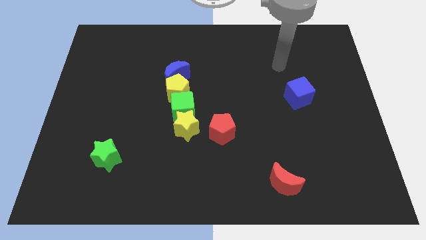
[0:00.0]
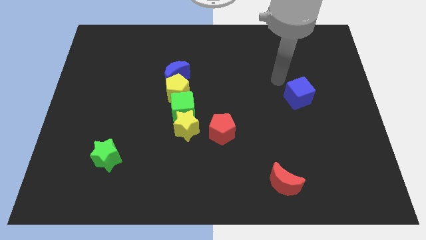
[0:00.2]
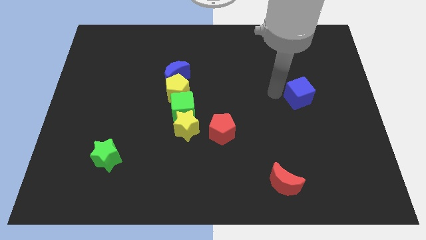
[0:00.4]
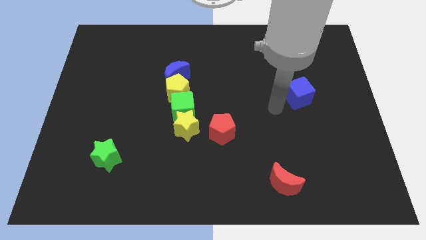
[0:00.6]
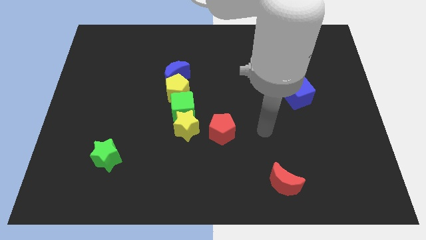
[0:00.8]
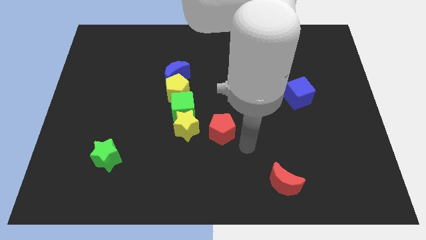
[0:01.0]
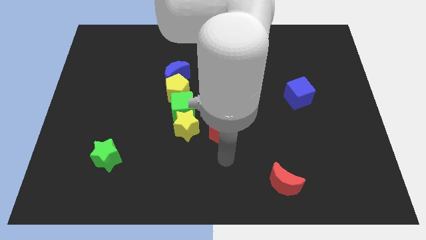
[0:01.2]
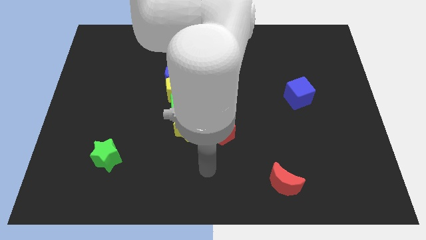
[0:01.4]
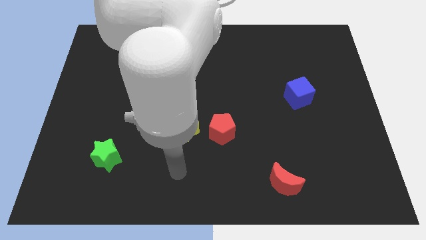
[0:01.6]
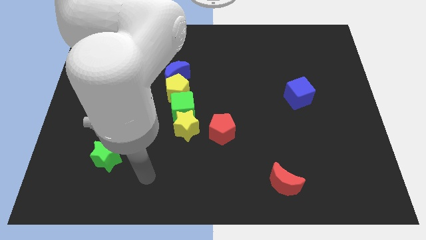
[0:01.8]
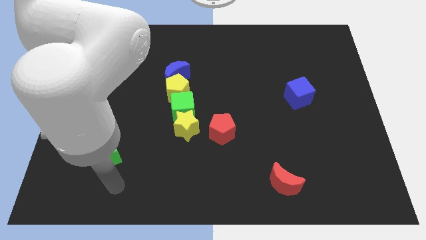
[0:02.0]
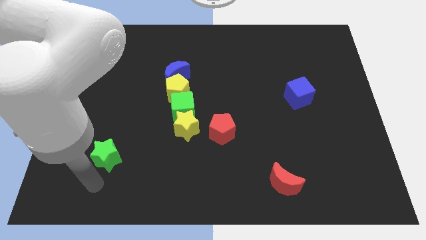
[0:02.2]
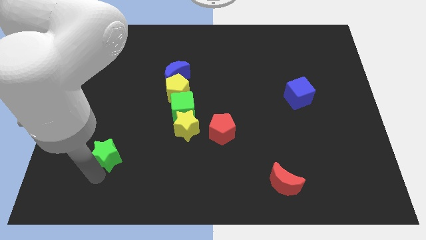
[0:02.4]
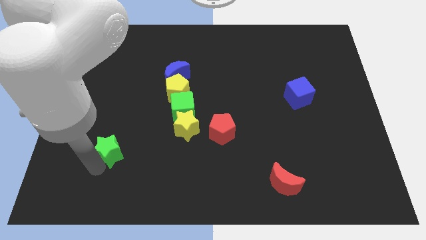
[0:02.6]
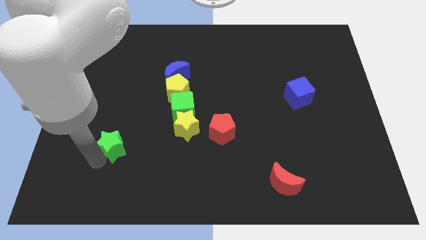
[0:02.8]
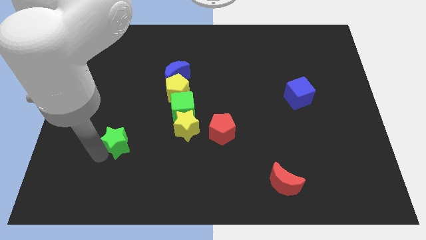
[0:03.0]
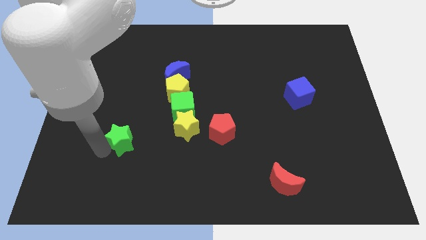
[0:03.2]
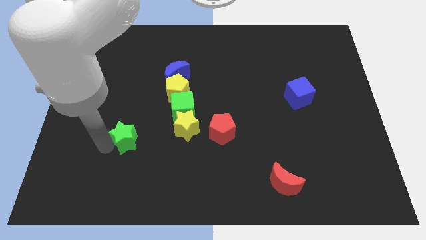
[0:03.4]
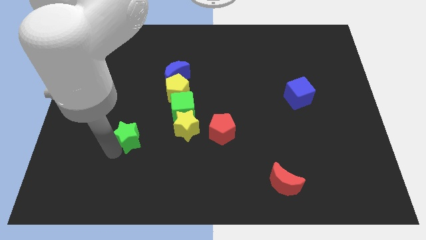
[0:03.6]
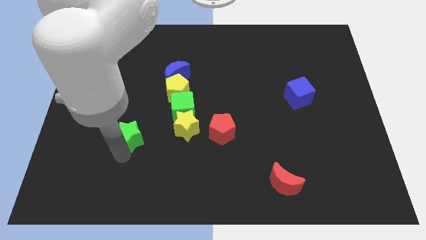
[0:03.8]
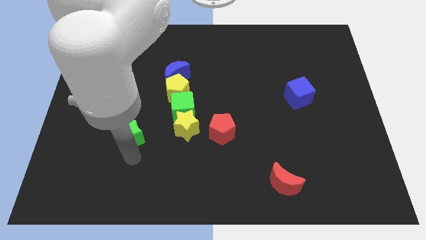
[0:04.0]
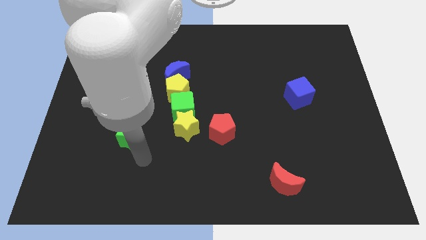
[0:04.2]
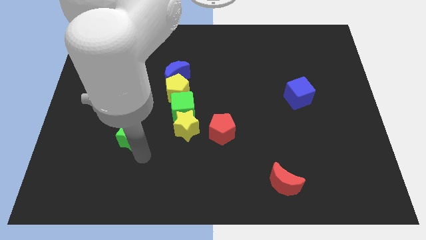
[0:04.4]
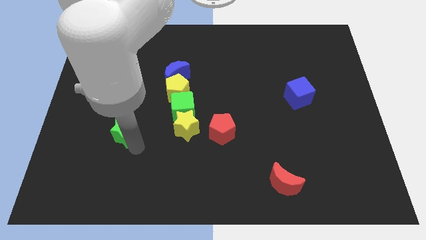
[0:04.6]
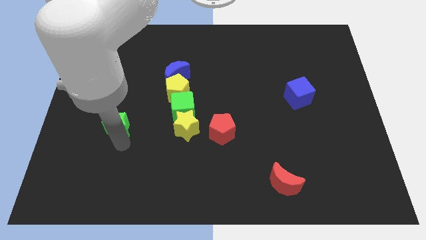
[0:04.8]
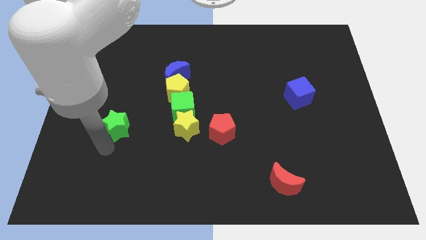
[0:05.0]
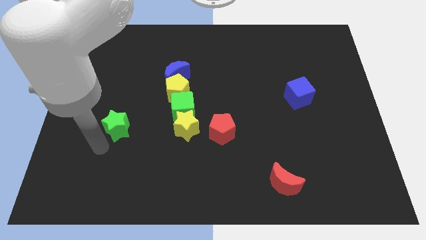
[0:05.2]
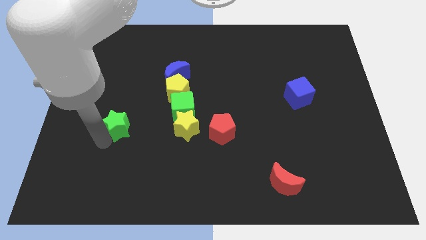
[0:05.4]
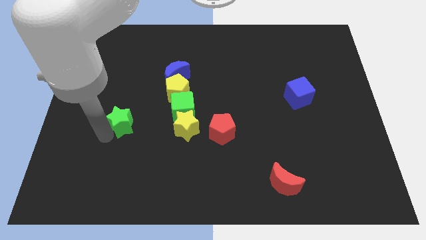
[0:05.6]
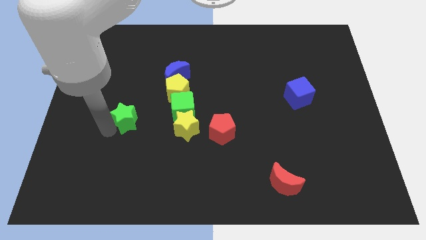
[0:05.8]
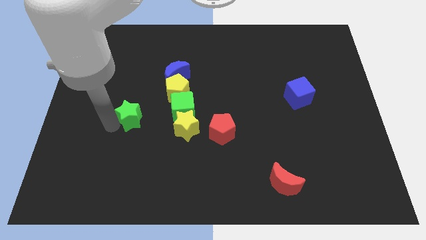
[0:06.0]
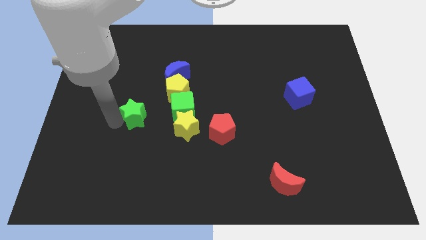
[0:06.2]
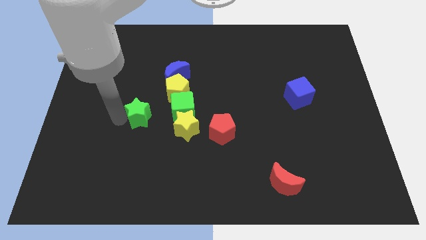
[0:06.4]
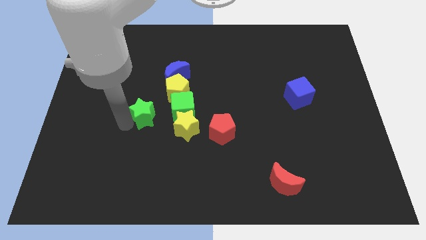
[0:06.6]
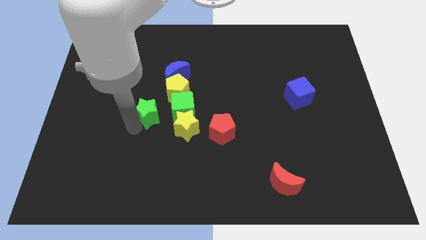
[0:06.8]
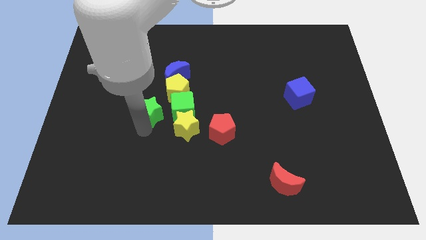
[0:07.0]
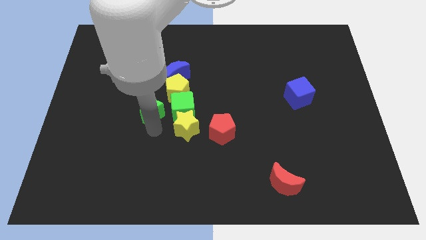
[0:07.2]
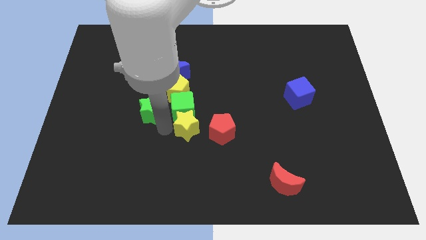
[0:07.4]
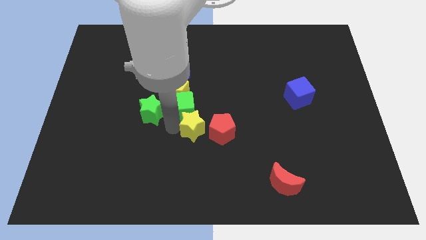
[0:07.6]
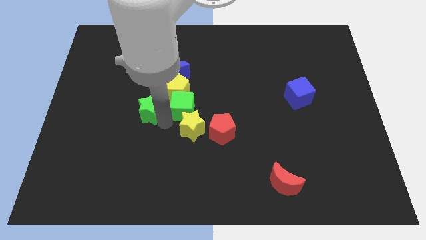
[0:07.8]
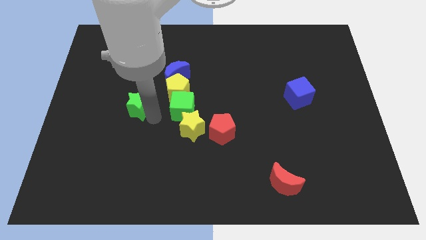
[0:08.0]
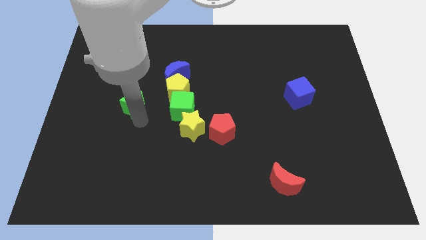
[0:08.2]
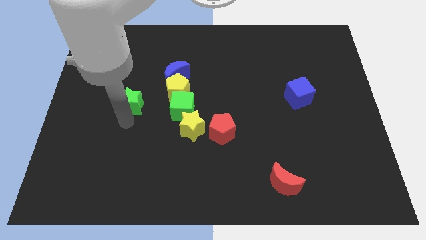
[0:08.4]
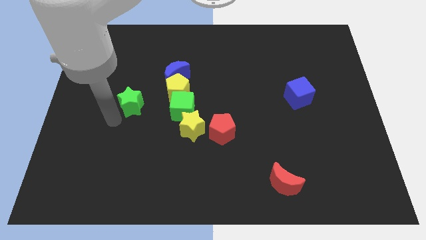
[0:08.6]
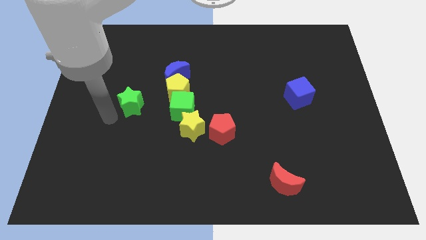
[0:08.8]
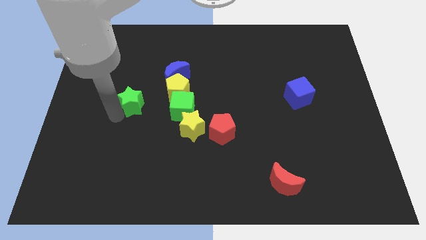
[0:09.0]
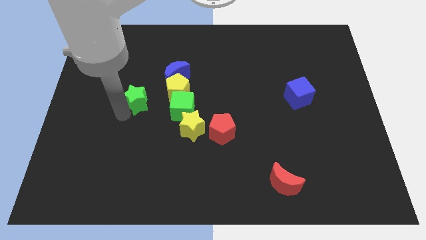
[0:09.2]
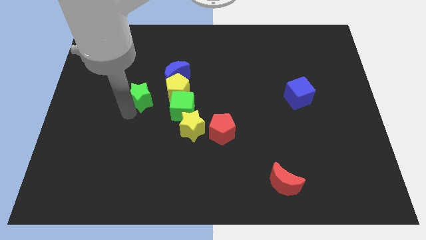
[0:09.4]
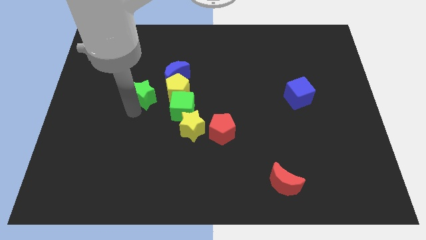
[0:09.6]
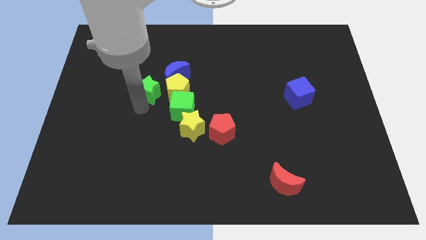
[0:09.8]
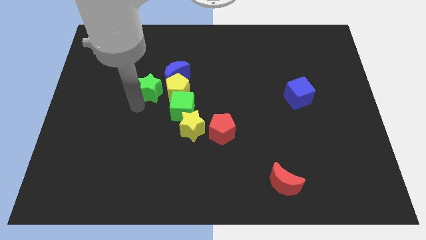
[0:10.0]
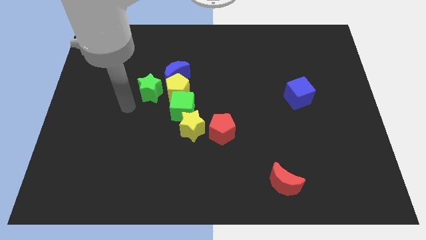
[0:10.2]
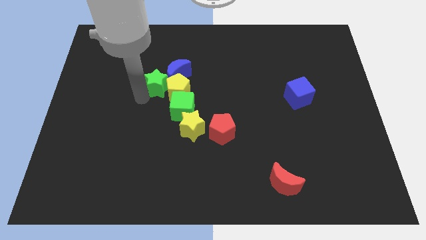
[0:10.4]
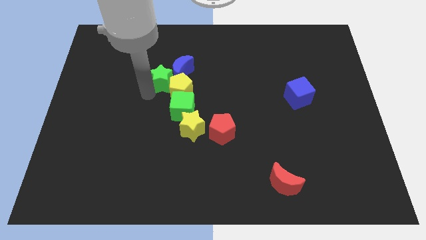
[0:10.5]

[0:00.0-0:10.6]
put the green star towards the blue moon

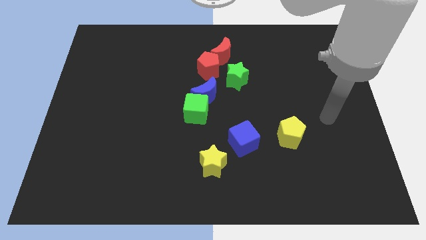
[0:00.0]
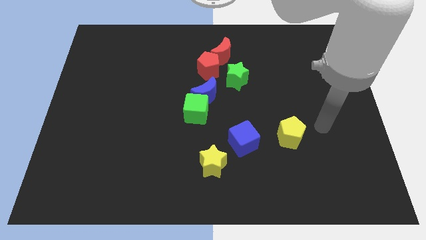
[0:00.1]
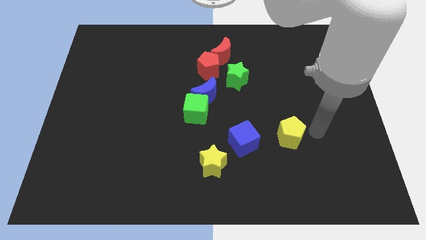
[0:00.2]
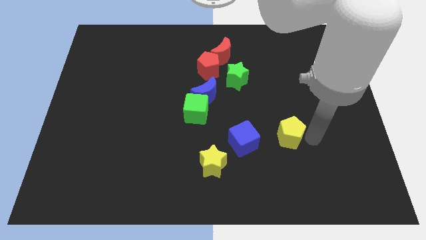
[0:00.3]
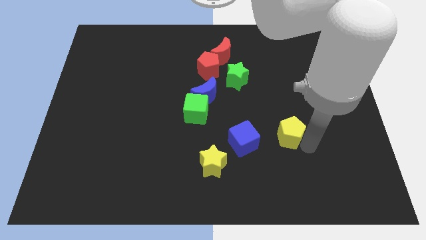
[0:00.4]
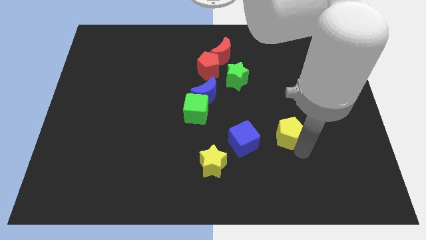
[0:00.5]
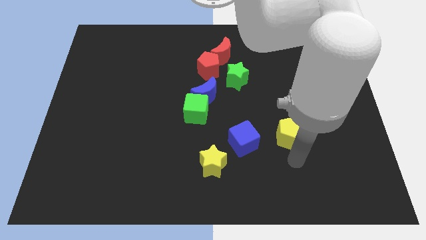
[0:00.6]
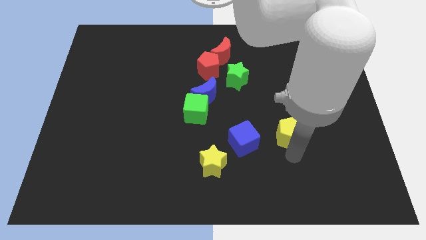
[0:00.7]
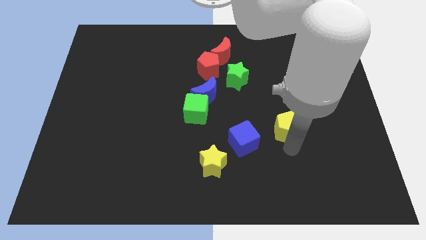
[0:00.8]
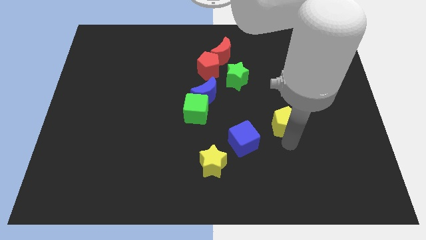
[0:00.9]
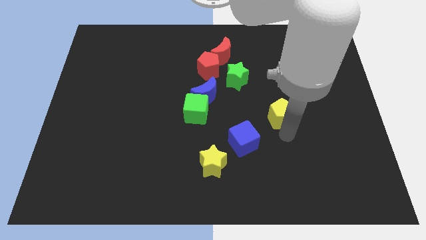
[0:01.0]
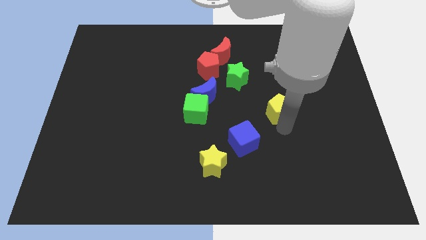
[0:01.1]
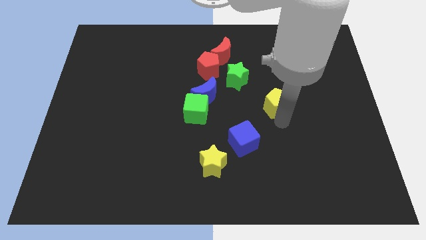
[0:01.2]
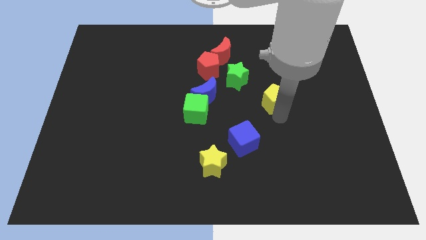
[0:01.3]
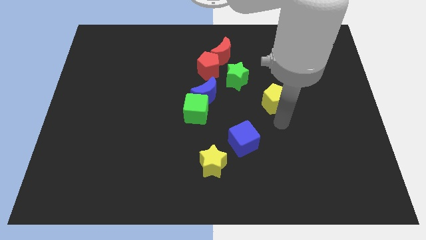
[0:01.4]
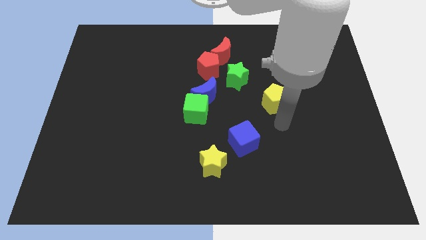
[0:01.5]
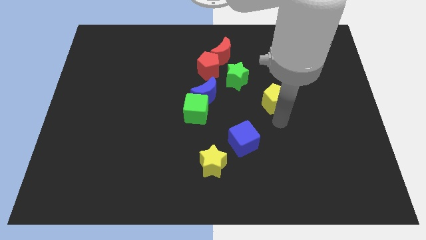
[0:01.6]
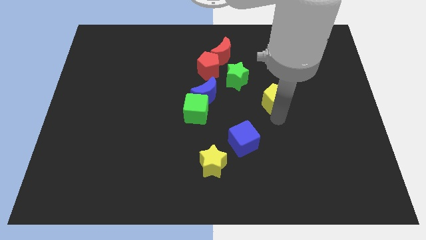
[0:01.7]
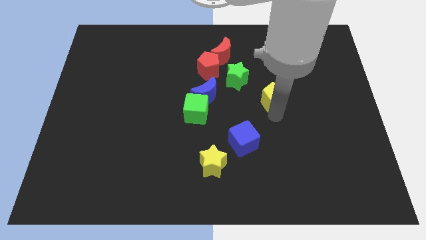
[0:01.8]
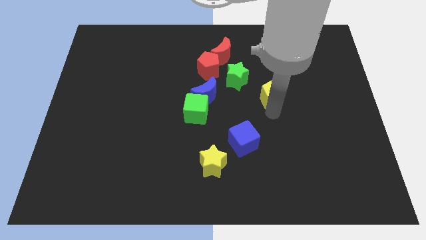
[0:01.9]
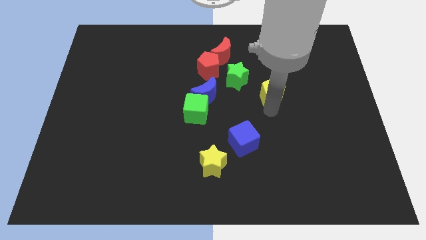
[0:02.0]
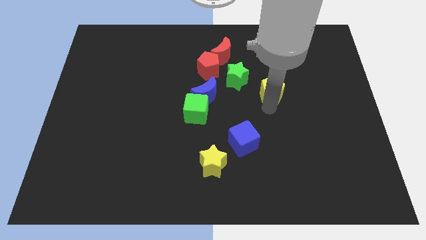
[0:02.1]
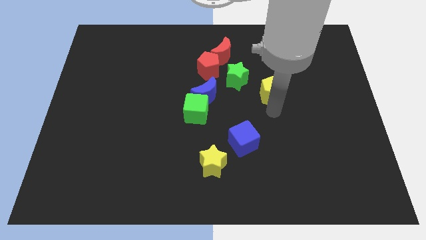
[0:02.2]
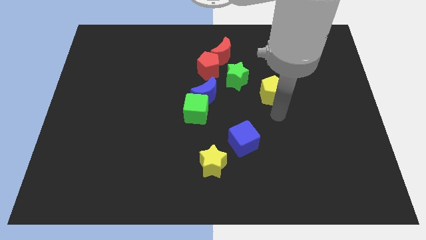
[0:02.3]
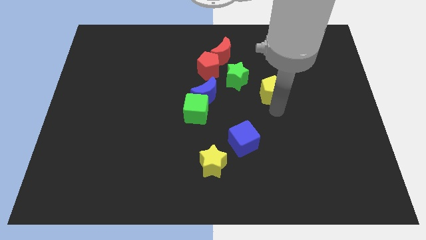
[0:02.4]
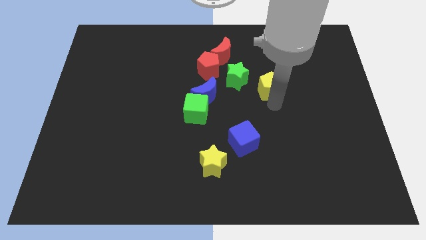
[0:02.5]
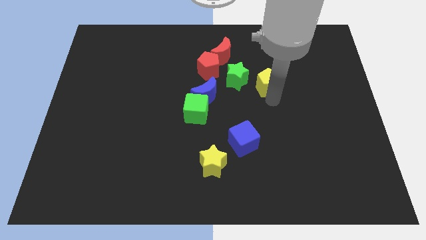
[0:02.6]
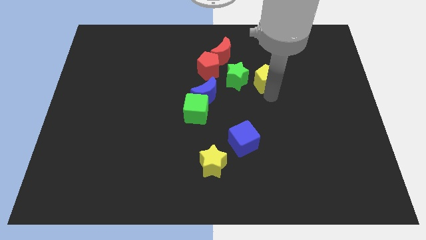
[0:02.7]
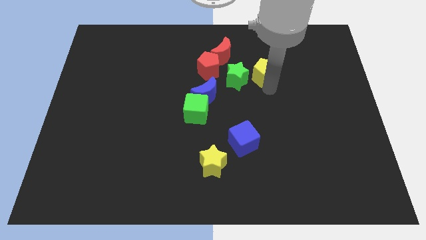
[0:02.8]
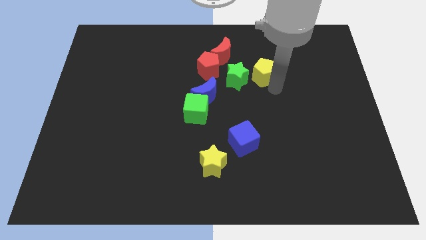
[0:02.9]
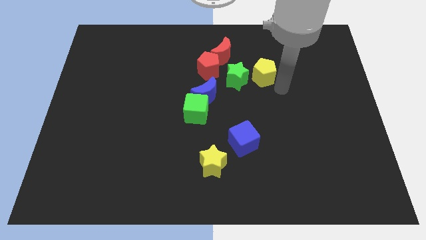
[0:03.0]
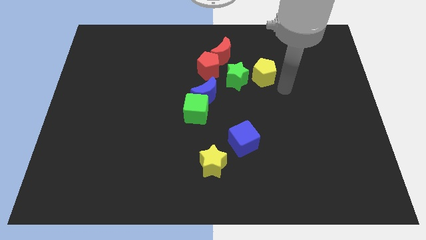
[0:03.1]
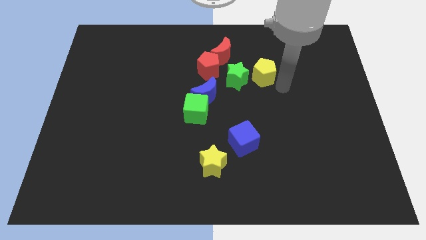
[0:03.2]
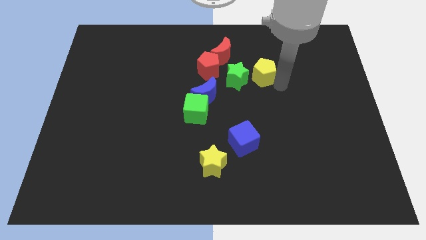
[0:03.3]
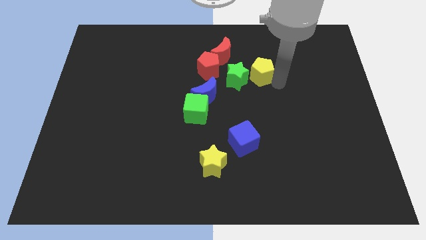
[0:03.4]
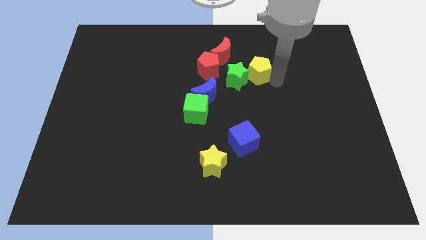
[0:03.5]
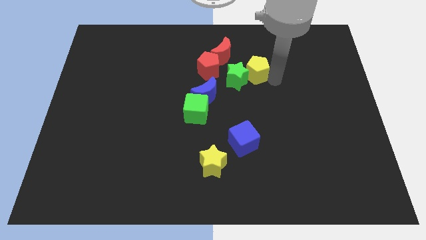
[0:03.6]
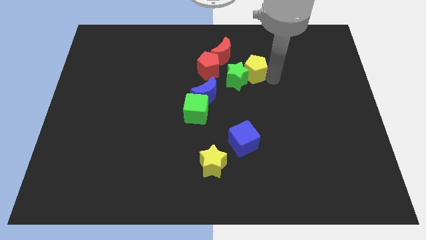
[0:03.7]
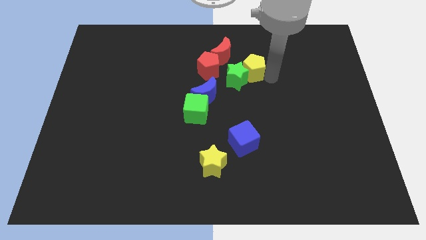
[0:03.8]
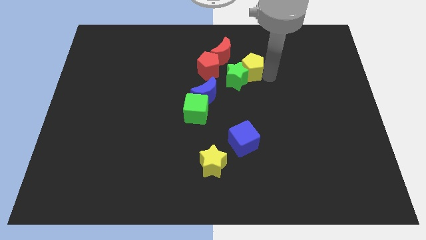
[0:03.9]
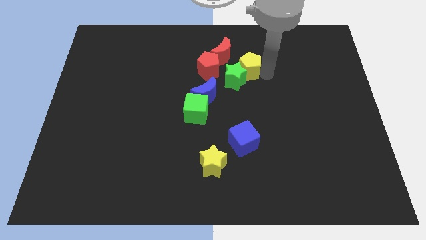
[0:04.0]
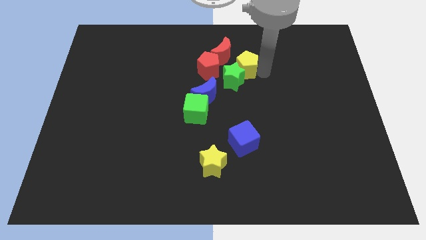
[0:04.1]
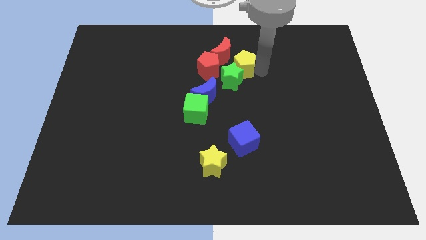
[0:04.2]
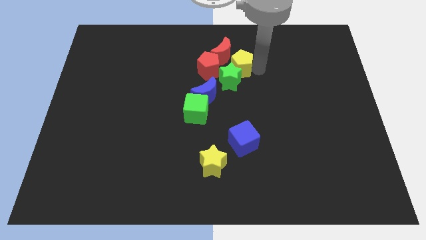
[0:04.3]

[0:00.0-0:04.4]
put the yellow pentagon close to the red moon
